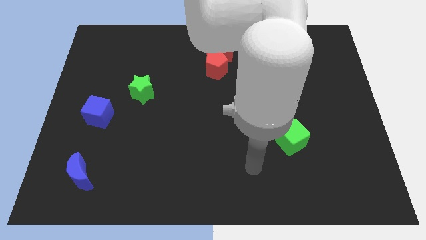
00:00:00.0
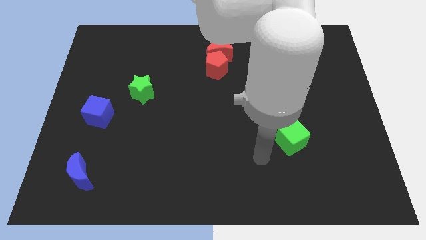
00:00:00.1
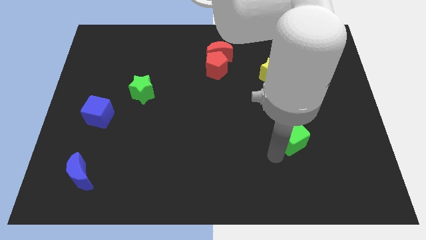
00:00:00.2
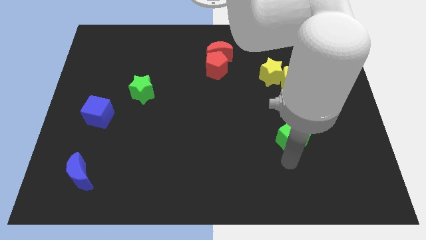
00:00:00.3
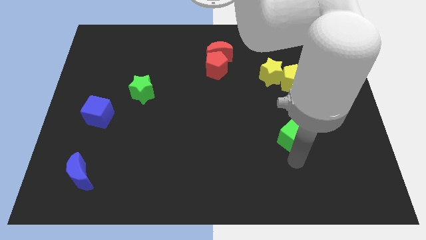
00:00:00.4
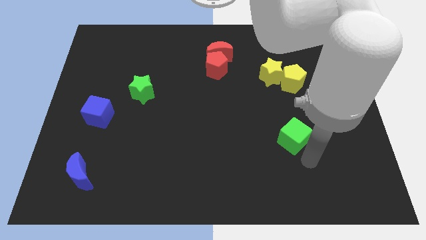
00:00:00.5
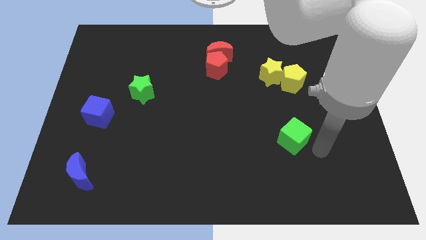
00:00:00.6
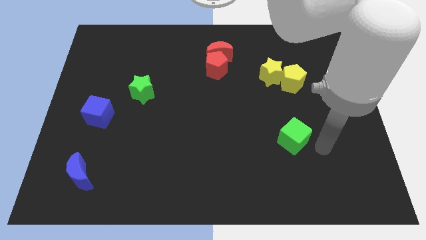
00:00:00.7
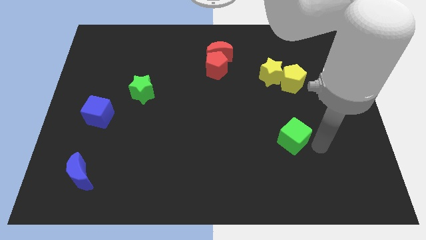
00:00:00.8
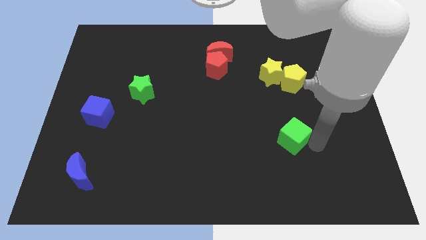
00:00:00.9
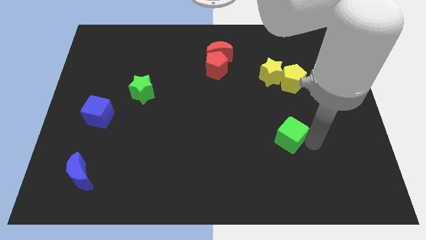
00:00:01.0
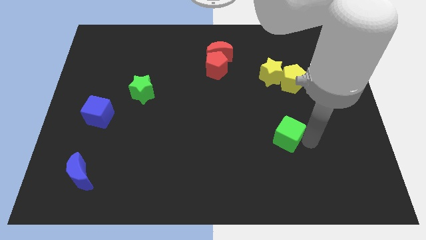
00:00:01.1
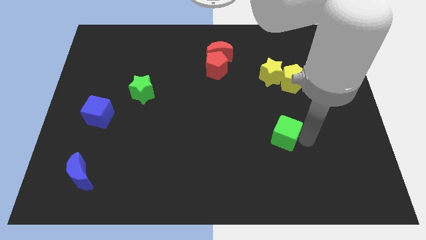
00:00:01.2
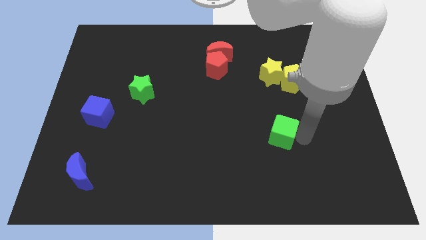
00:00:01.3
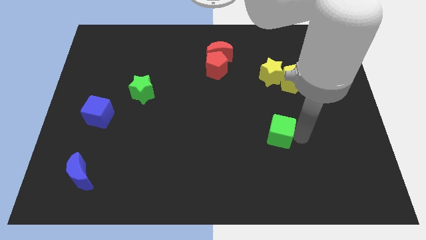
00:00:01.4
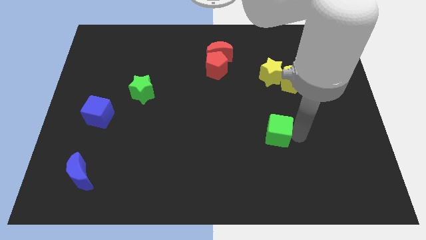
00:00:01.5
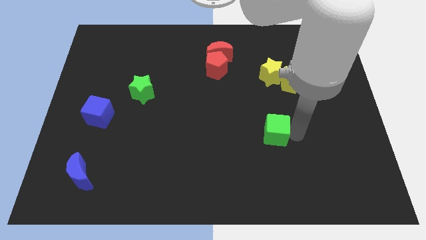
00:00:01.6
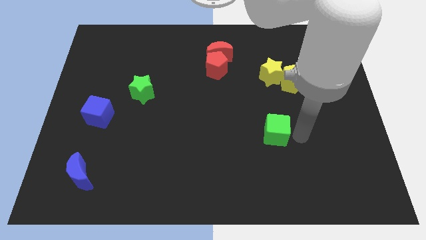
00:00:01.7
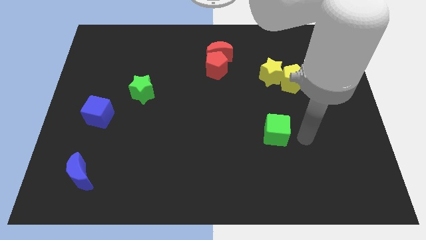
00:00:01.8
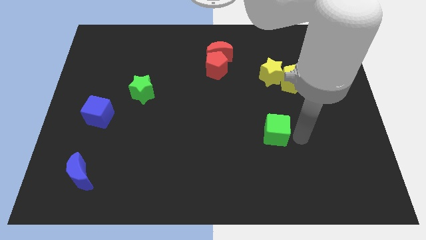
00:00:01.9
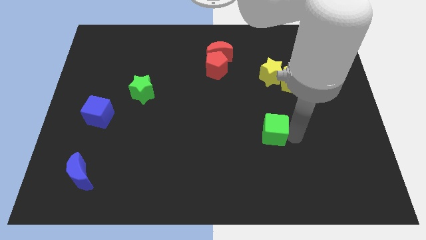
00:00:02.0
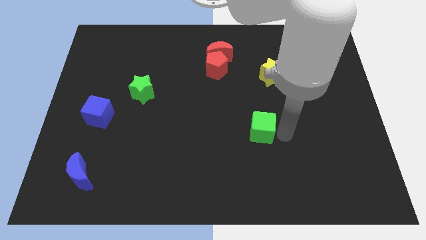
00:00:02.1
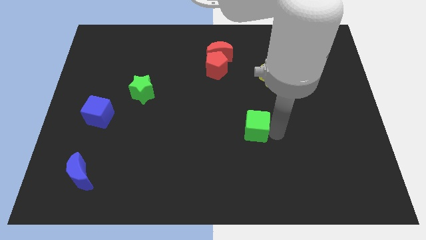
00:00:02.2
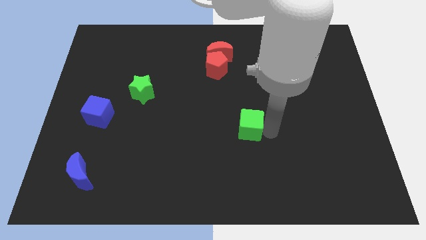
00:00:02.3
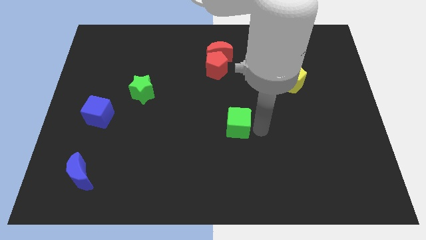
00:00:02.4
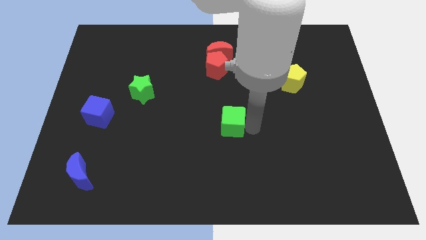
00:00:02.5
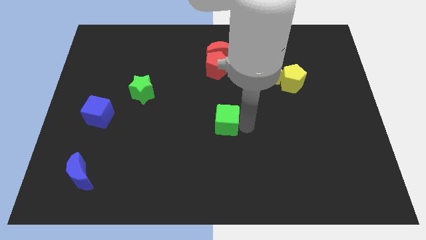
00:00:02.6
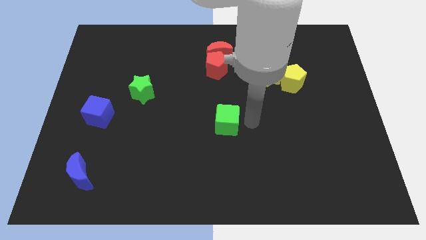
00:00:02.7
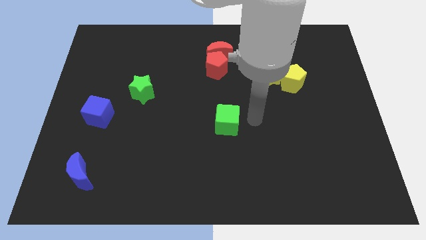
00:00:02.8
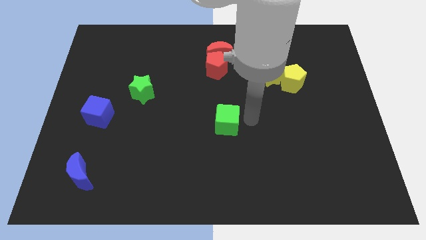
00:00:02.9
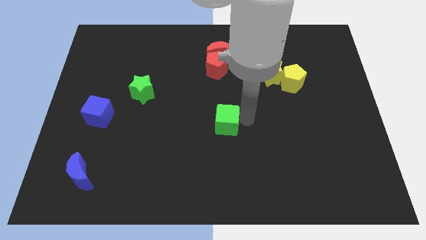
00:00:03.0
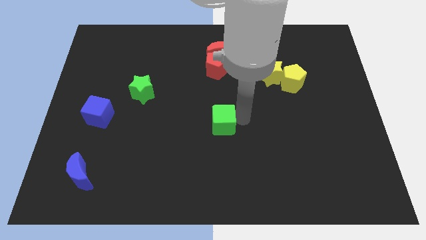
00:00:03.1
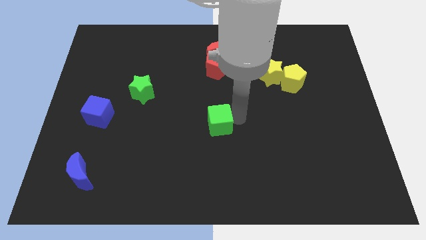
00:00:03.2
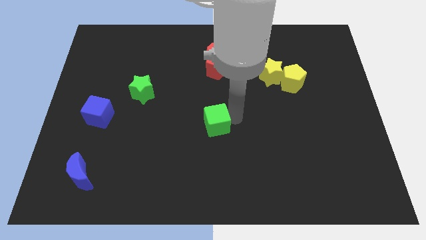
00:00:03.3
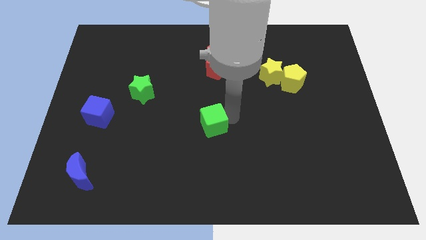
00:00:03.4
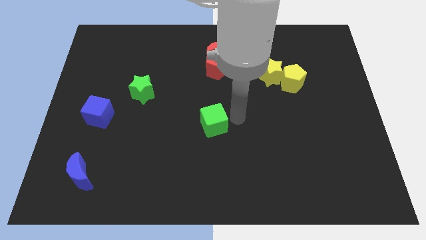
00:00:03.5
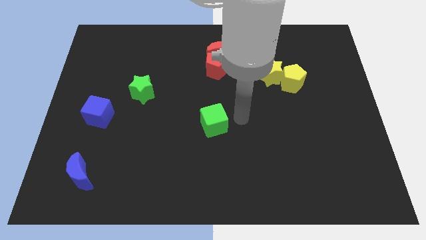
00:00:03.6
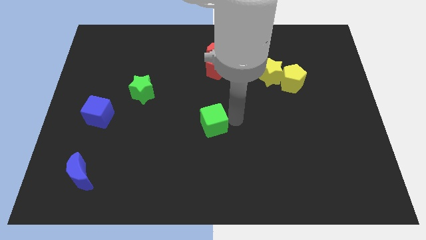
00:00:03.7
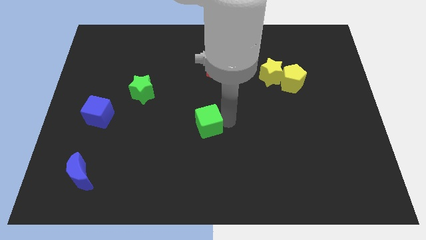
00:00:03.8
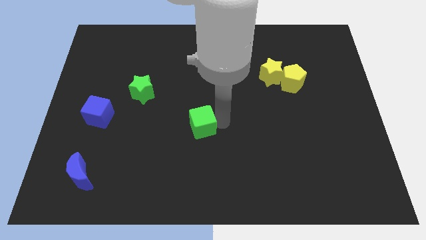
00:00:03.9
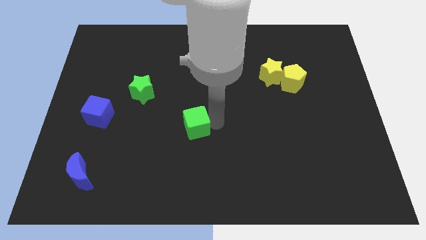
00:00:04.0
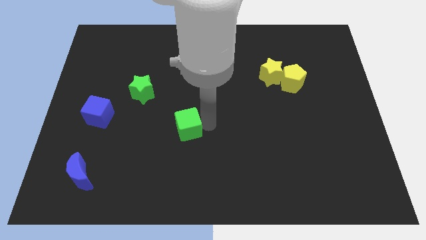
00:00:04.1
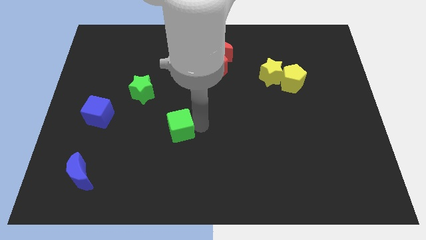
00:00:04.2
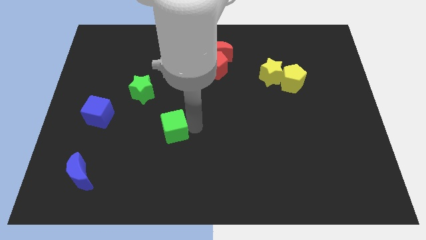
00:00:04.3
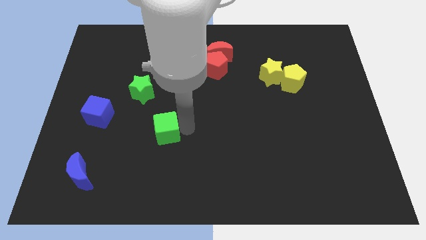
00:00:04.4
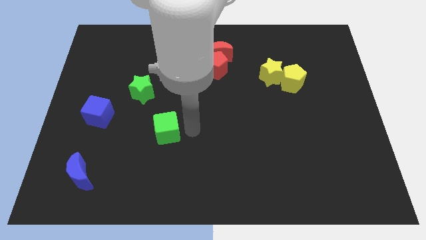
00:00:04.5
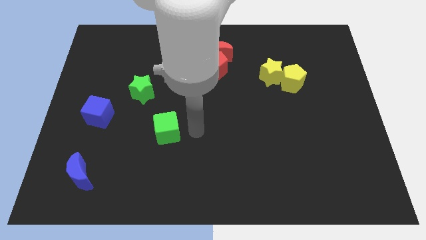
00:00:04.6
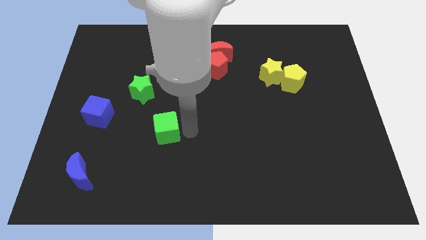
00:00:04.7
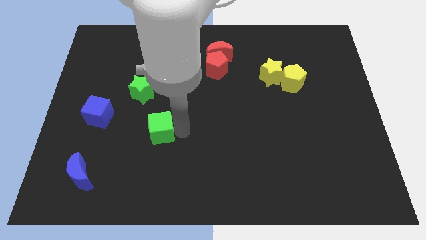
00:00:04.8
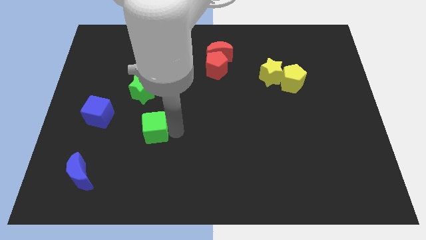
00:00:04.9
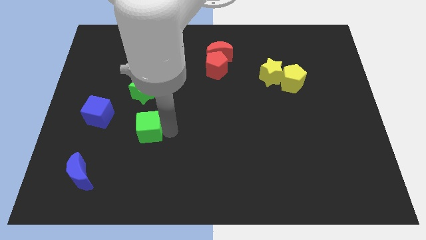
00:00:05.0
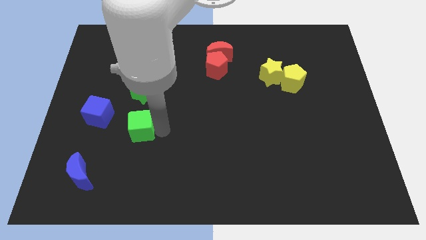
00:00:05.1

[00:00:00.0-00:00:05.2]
put the green cube diagonally down and to the right of the blue cube

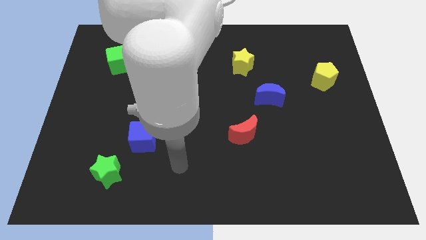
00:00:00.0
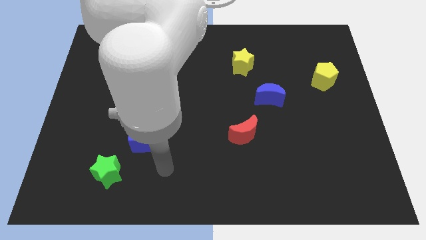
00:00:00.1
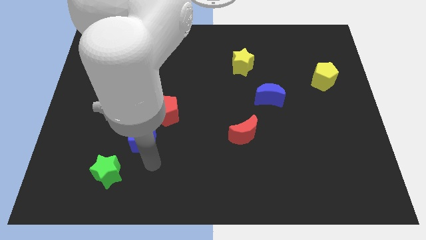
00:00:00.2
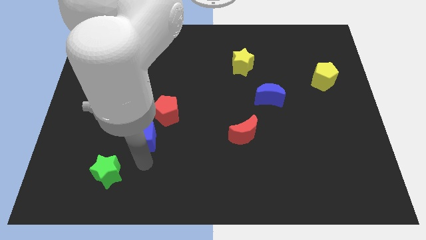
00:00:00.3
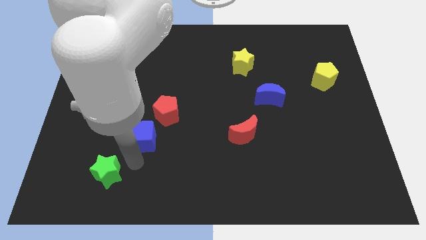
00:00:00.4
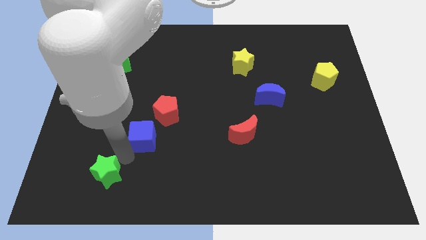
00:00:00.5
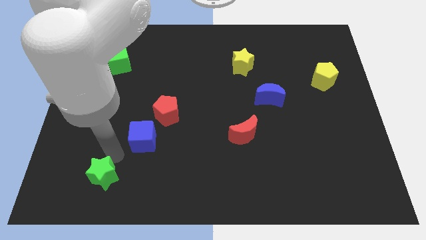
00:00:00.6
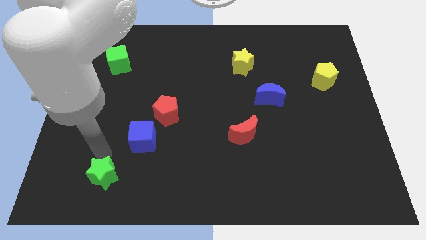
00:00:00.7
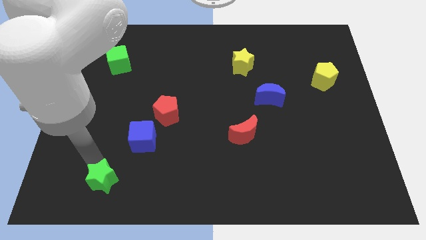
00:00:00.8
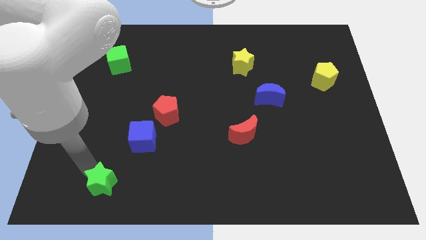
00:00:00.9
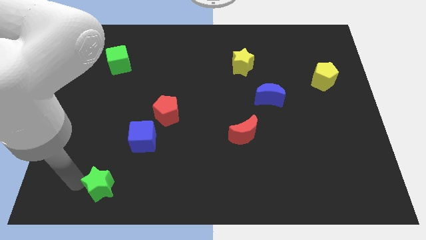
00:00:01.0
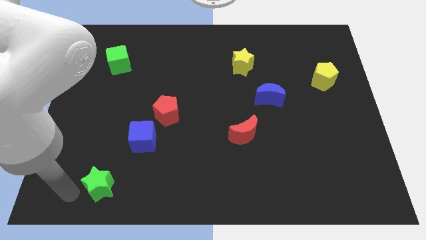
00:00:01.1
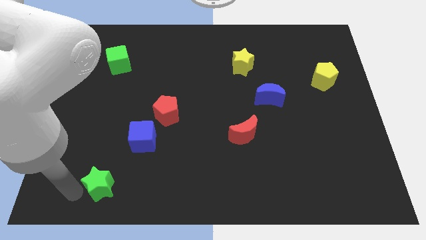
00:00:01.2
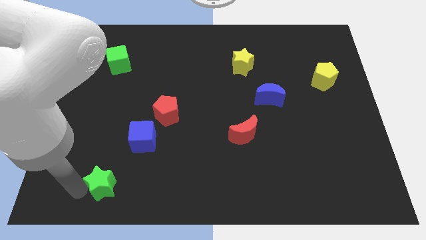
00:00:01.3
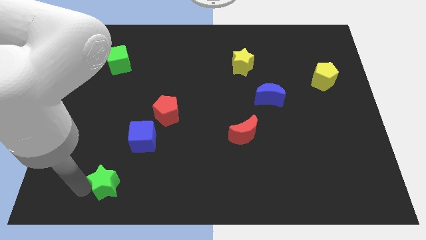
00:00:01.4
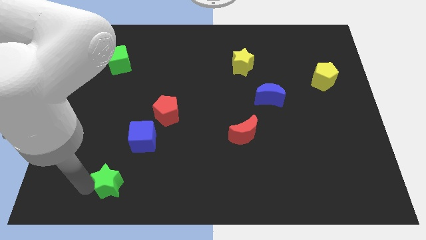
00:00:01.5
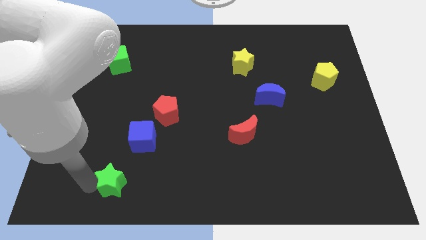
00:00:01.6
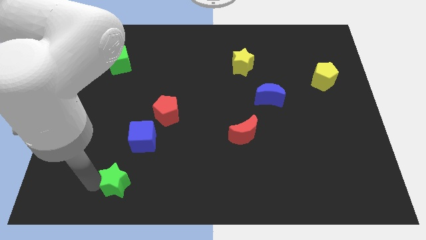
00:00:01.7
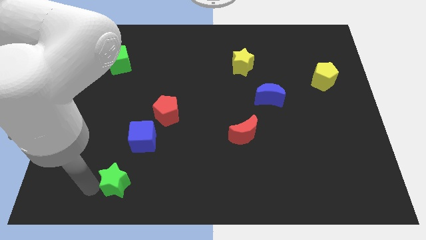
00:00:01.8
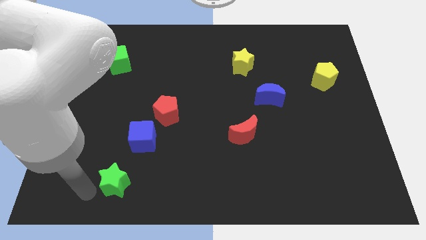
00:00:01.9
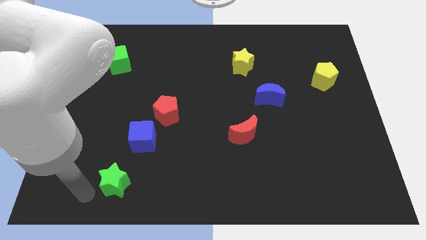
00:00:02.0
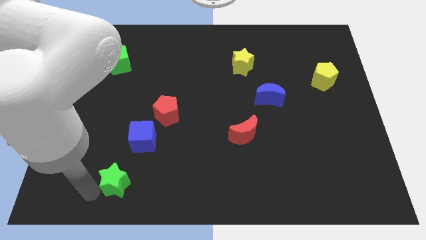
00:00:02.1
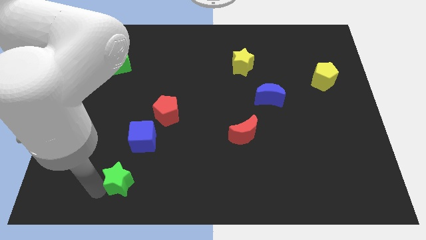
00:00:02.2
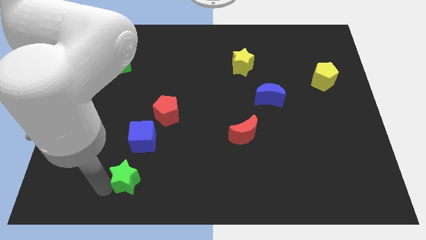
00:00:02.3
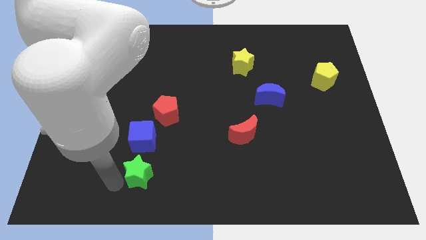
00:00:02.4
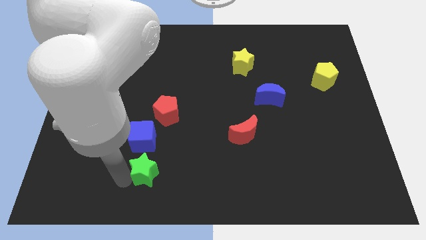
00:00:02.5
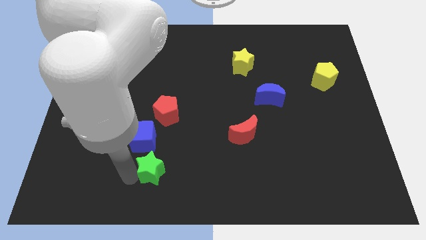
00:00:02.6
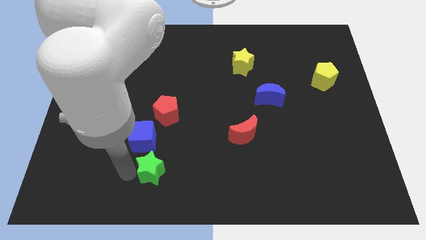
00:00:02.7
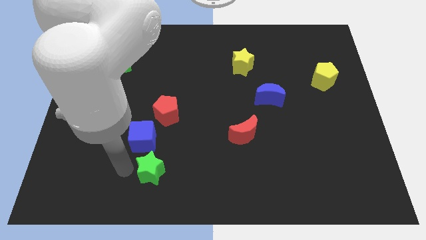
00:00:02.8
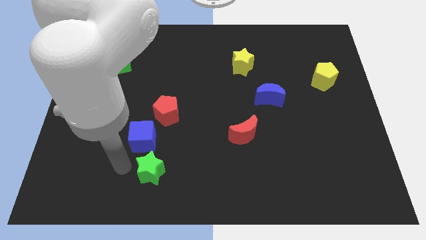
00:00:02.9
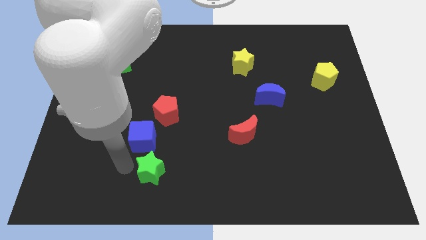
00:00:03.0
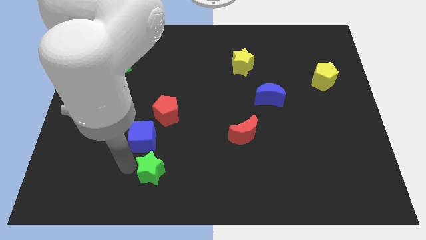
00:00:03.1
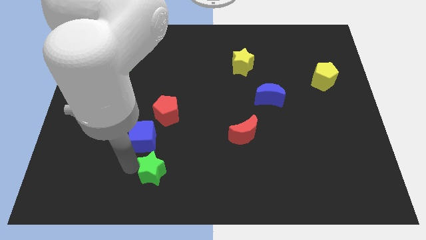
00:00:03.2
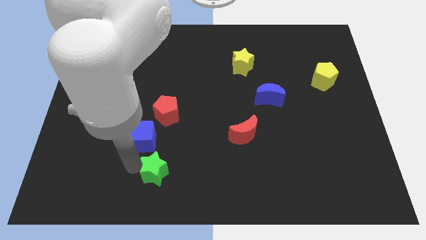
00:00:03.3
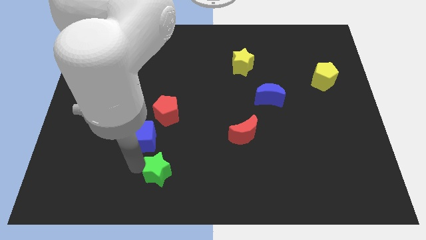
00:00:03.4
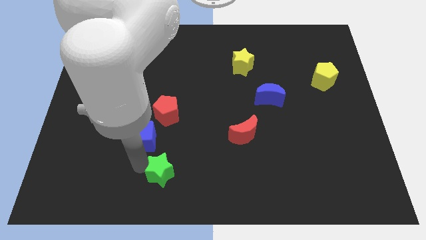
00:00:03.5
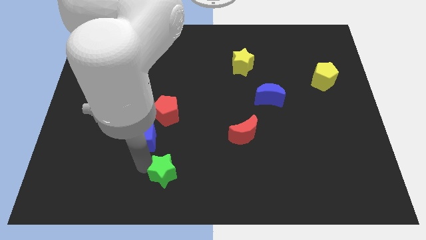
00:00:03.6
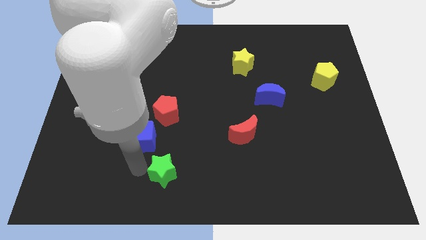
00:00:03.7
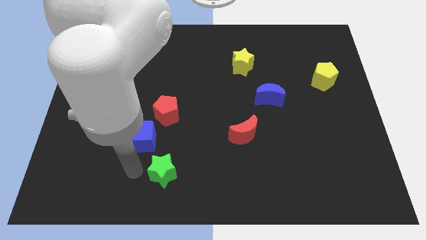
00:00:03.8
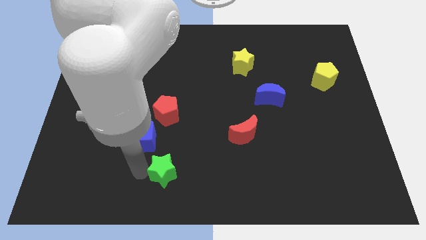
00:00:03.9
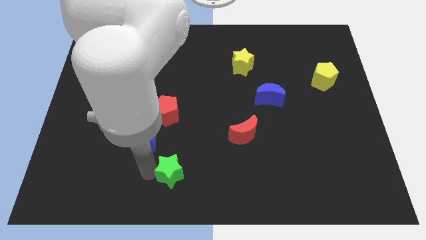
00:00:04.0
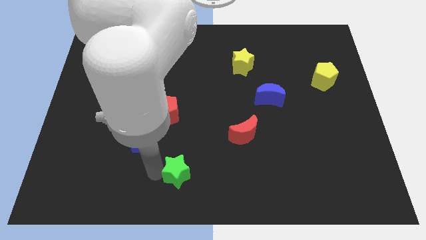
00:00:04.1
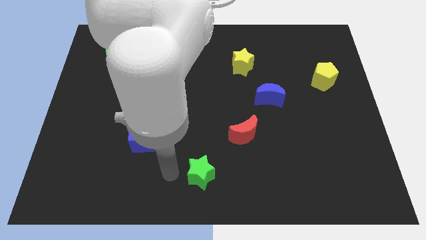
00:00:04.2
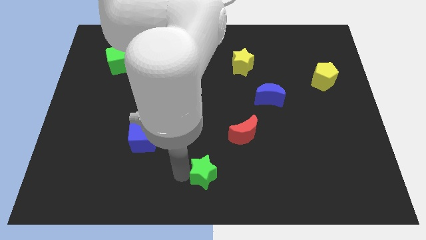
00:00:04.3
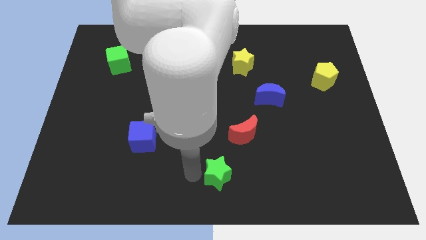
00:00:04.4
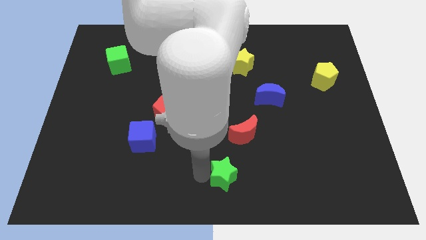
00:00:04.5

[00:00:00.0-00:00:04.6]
slide the green star to the bottom side of the red moon
